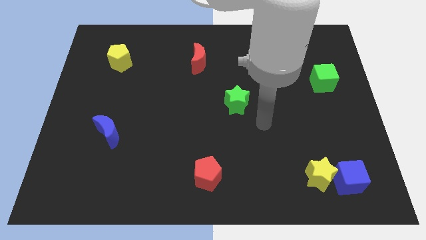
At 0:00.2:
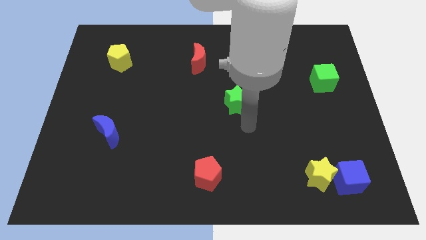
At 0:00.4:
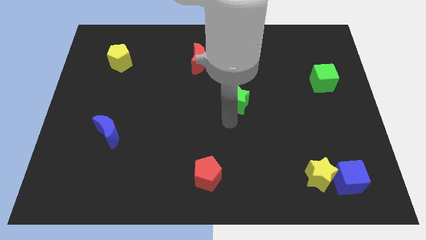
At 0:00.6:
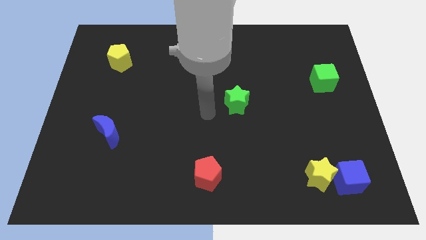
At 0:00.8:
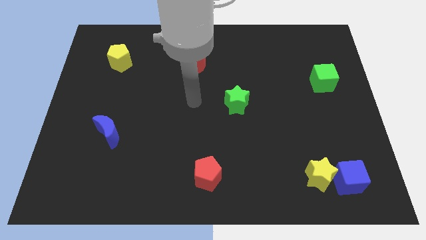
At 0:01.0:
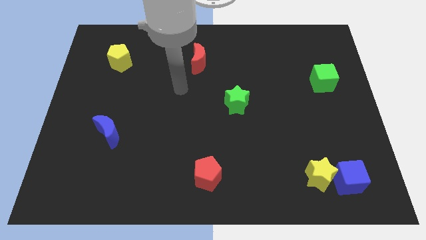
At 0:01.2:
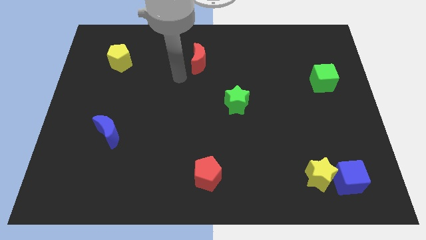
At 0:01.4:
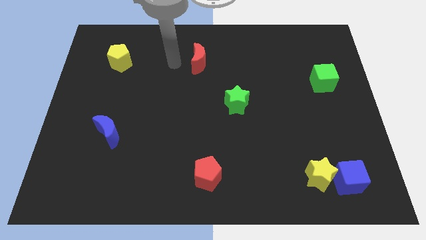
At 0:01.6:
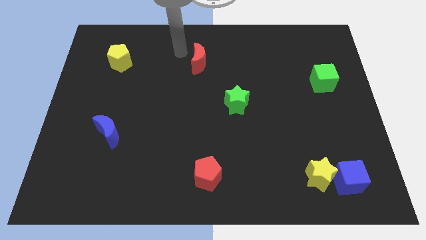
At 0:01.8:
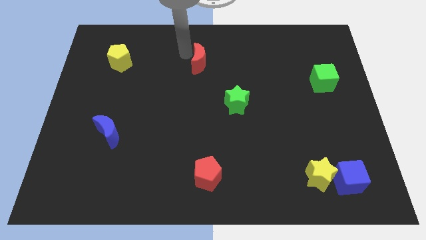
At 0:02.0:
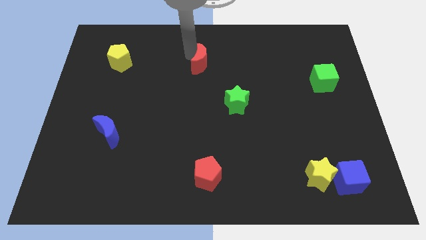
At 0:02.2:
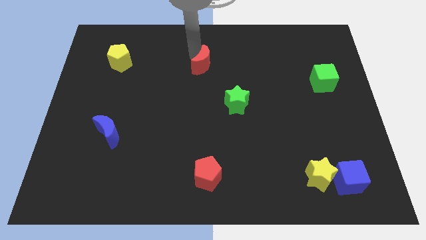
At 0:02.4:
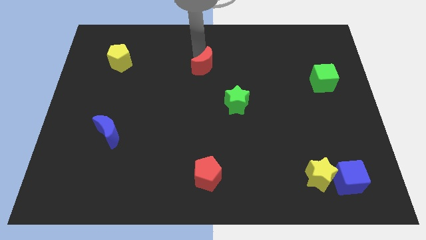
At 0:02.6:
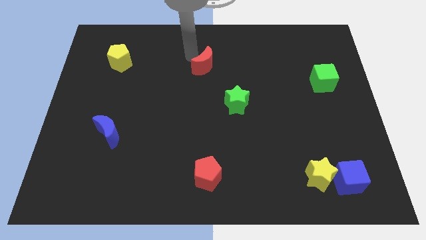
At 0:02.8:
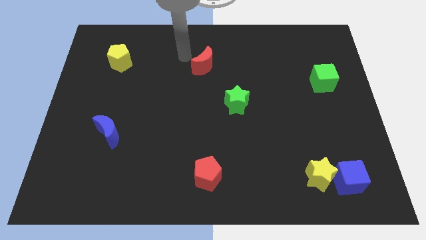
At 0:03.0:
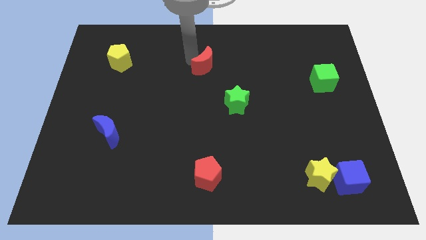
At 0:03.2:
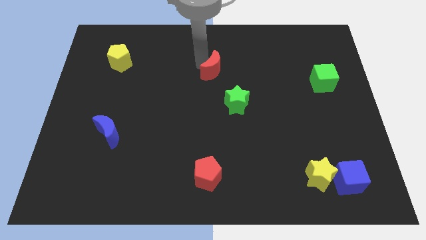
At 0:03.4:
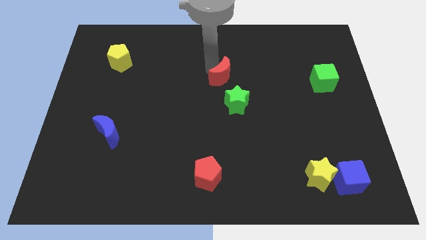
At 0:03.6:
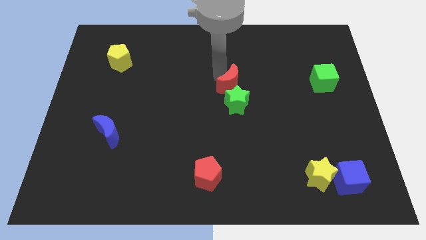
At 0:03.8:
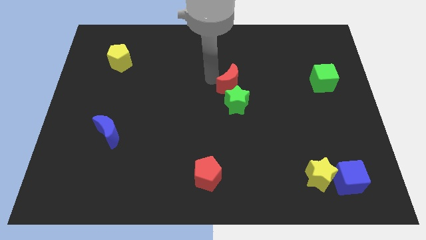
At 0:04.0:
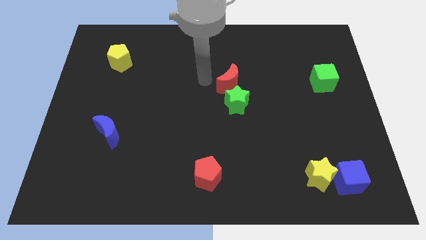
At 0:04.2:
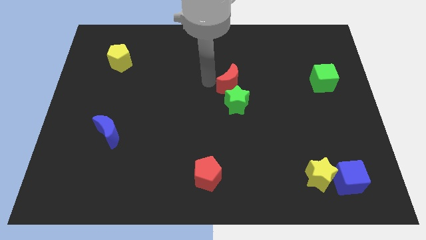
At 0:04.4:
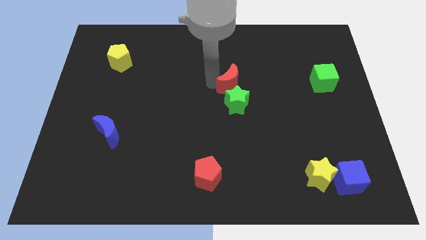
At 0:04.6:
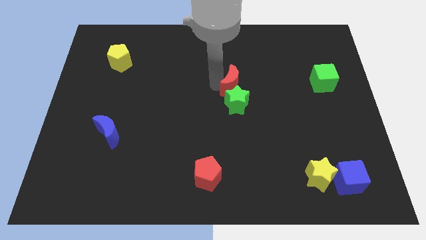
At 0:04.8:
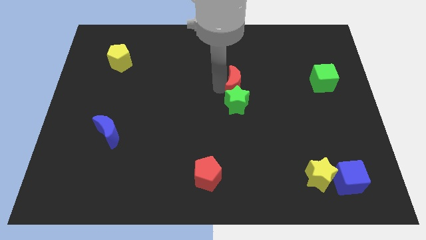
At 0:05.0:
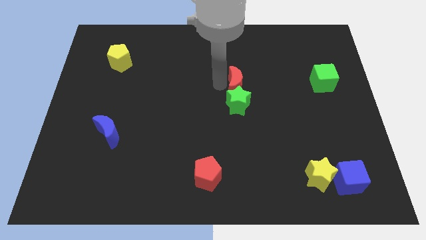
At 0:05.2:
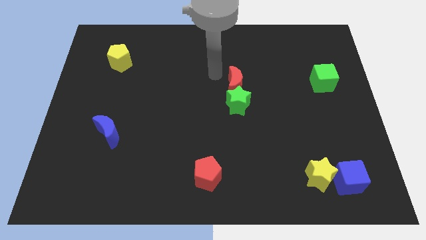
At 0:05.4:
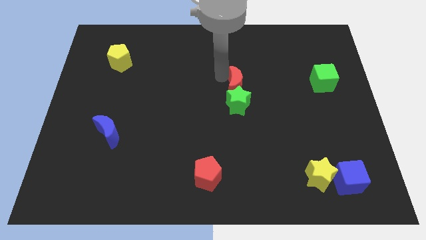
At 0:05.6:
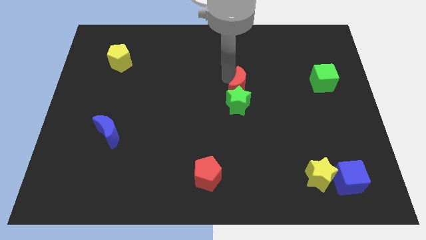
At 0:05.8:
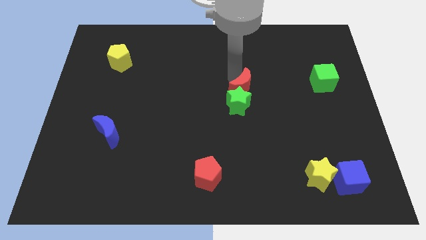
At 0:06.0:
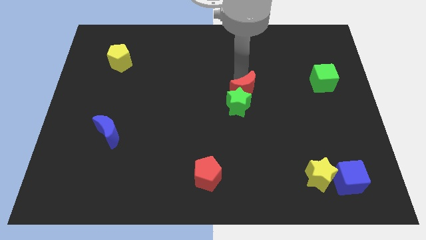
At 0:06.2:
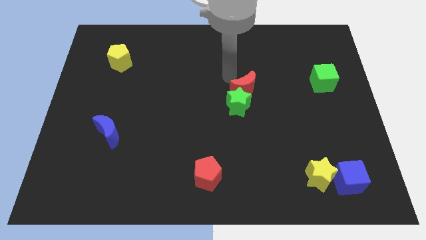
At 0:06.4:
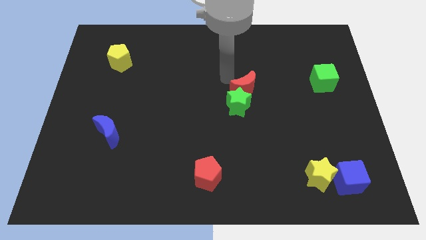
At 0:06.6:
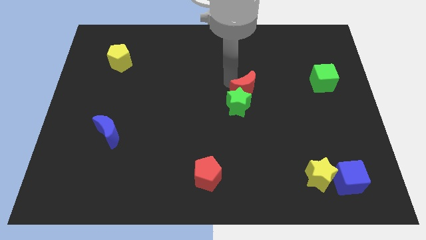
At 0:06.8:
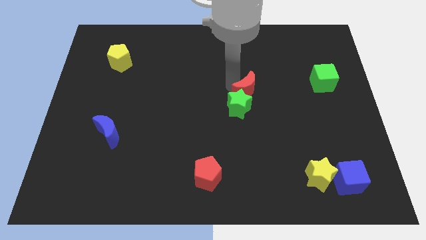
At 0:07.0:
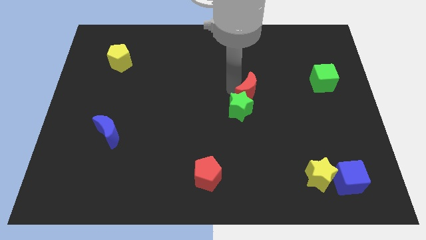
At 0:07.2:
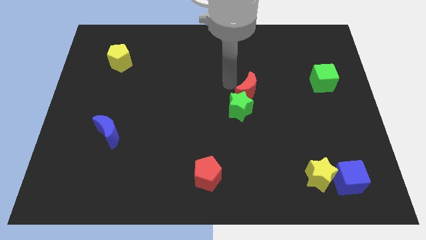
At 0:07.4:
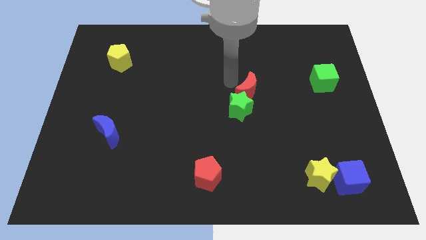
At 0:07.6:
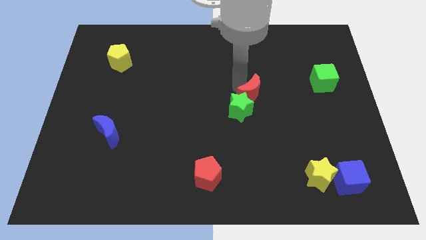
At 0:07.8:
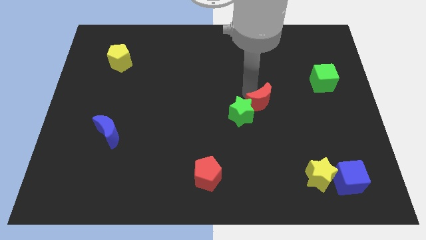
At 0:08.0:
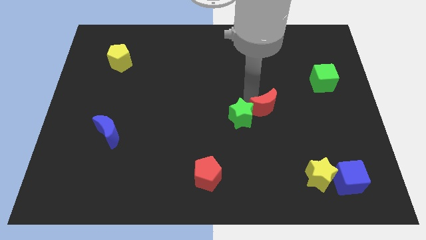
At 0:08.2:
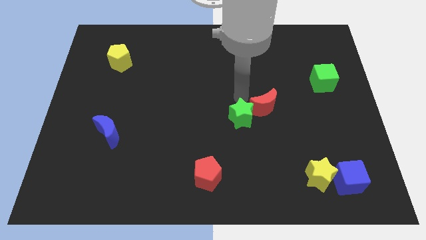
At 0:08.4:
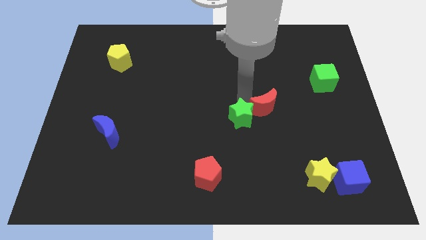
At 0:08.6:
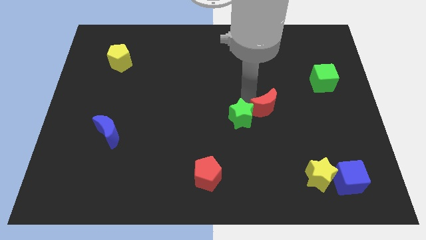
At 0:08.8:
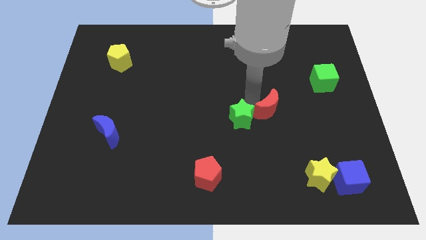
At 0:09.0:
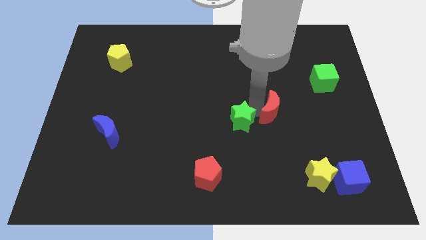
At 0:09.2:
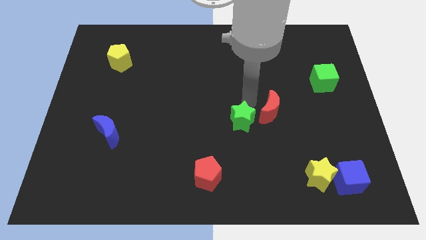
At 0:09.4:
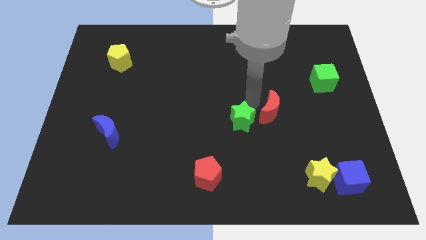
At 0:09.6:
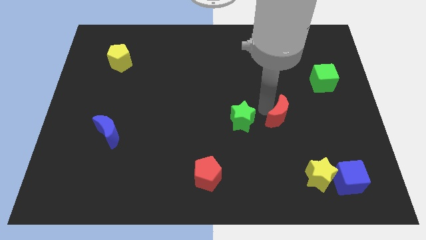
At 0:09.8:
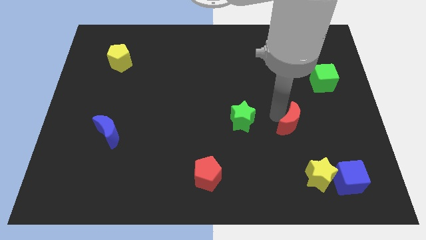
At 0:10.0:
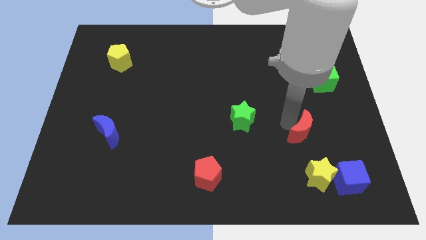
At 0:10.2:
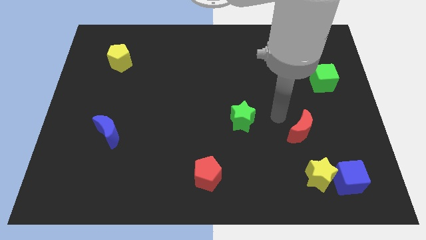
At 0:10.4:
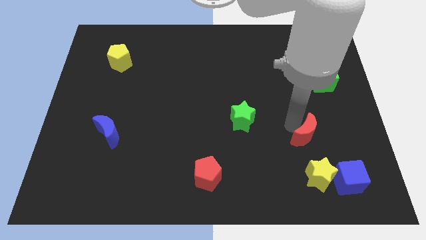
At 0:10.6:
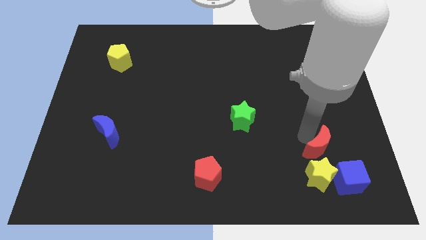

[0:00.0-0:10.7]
move the red moon diagonally up and to the right of the yellow star

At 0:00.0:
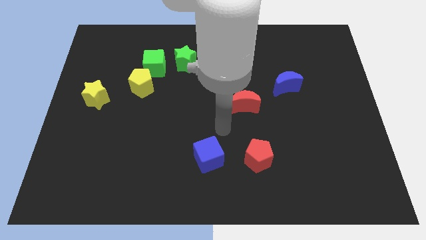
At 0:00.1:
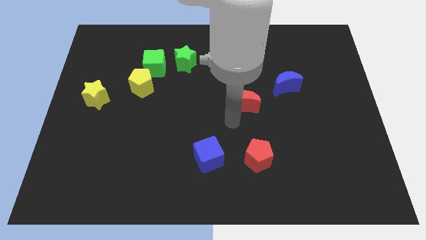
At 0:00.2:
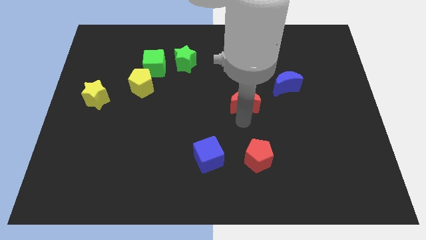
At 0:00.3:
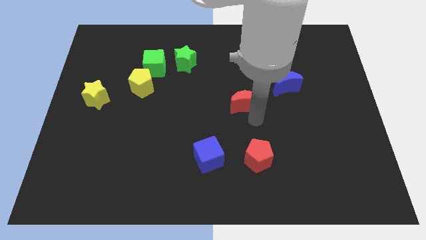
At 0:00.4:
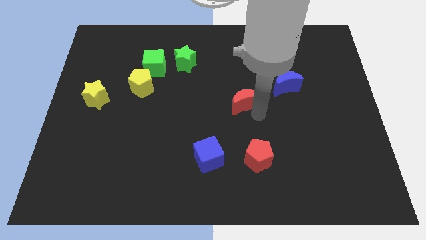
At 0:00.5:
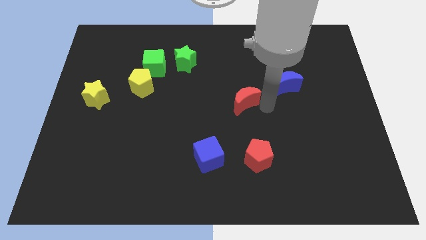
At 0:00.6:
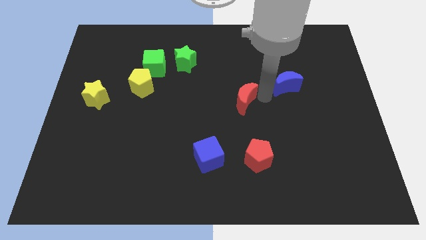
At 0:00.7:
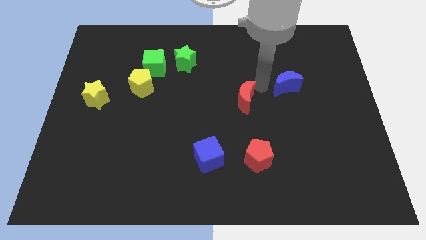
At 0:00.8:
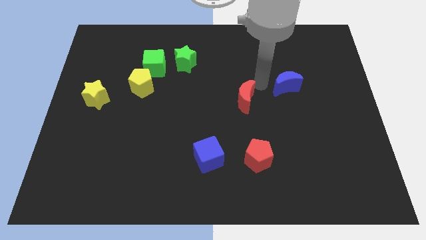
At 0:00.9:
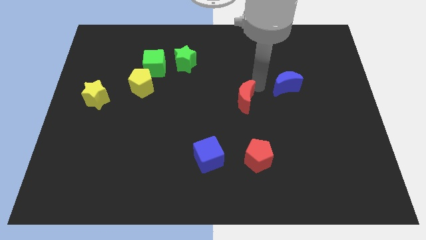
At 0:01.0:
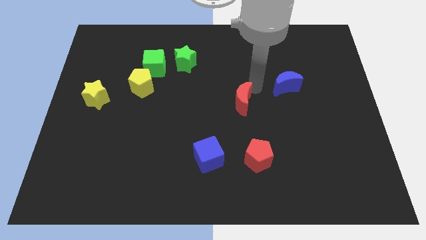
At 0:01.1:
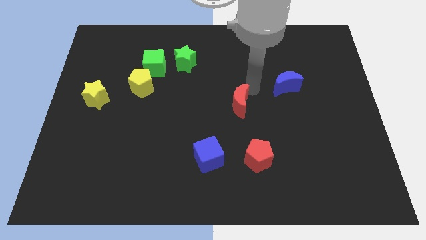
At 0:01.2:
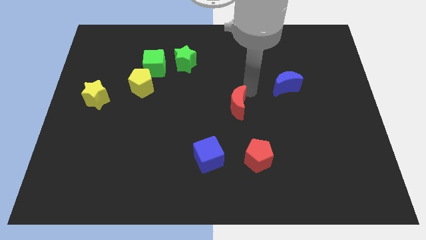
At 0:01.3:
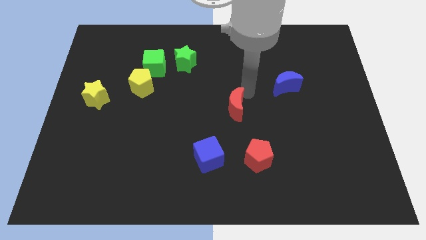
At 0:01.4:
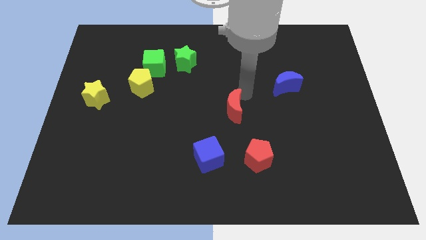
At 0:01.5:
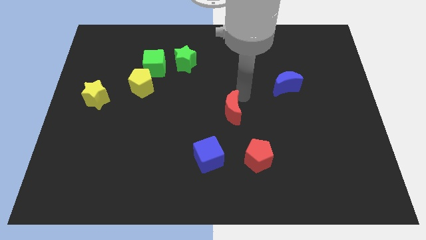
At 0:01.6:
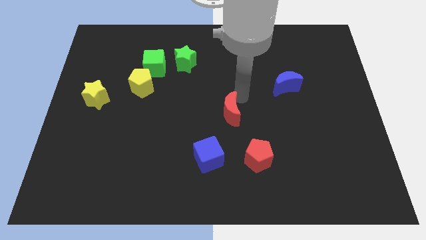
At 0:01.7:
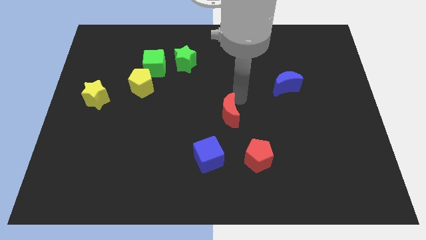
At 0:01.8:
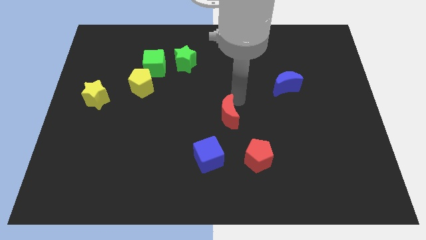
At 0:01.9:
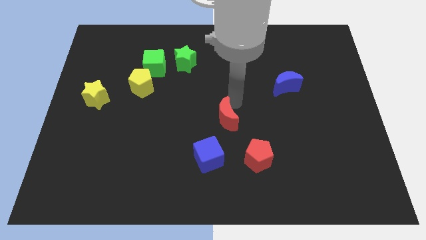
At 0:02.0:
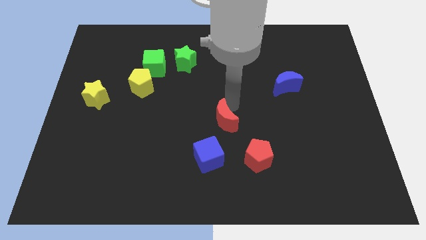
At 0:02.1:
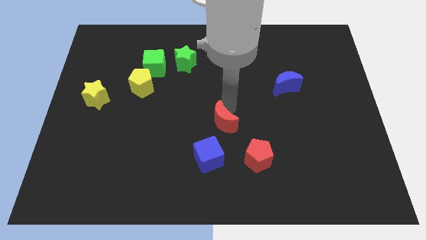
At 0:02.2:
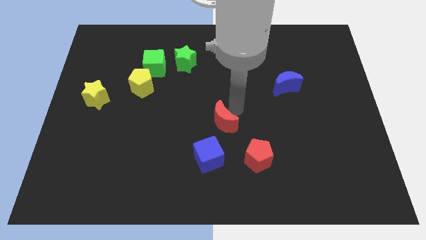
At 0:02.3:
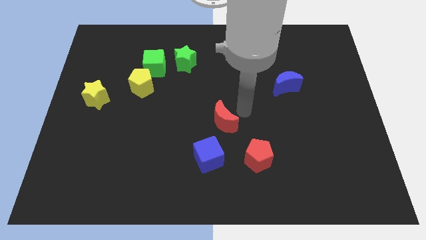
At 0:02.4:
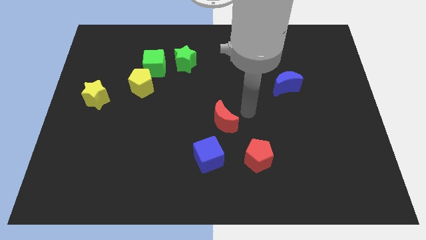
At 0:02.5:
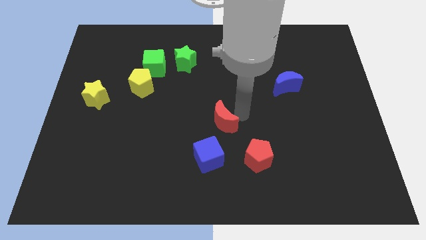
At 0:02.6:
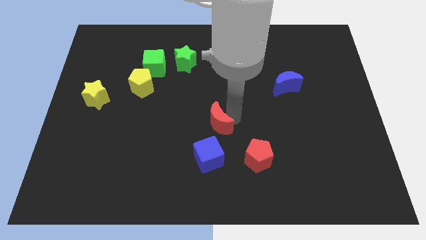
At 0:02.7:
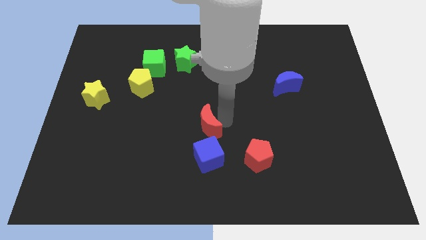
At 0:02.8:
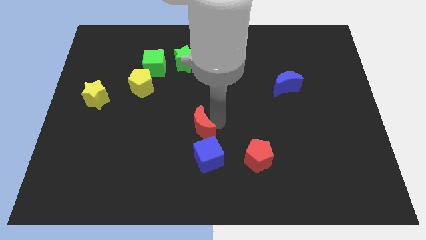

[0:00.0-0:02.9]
put the red moon to the top left side of the blue cube
